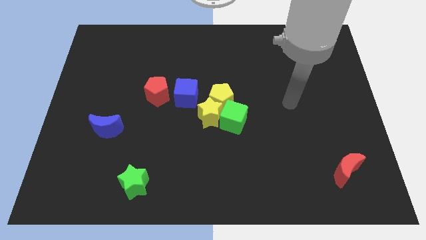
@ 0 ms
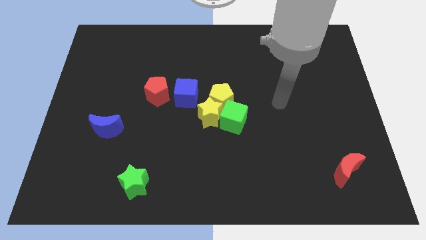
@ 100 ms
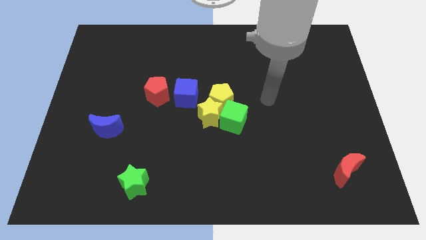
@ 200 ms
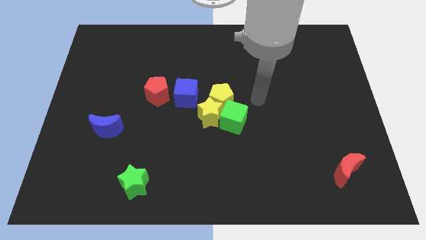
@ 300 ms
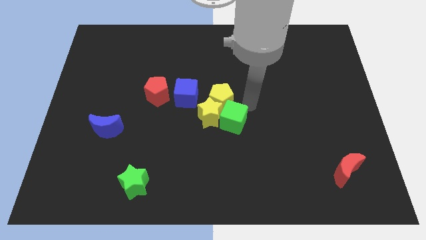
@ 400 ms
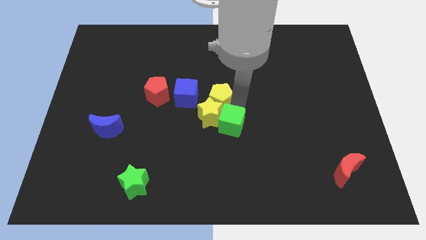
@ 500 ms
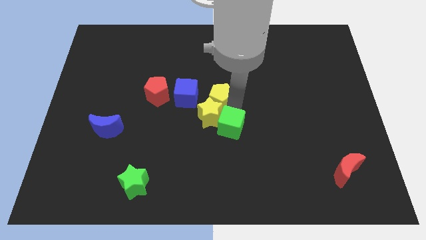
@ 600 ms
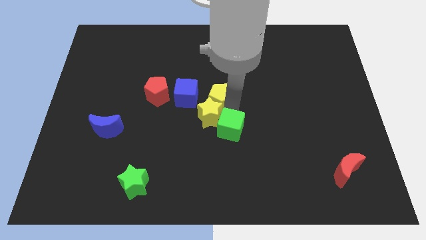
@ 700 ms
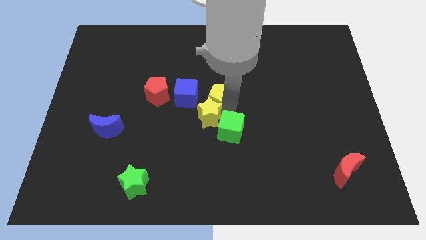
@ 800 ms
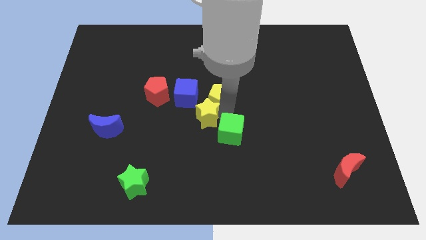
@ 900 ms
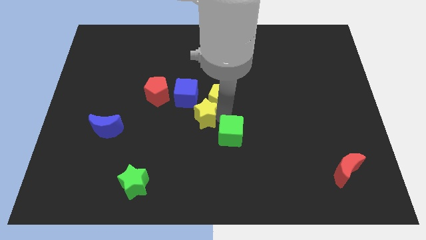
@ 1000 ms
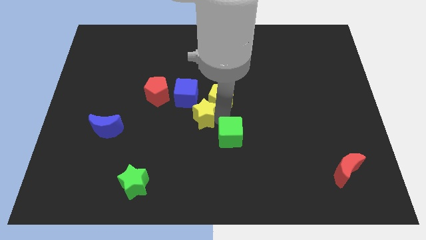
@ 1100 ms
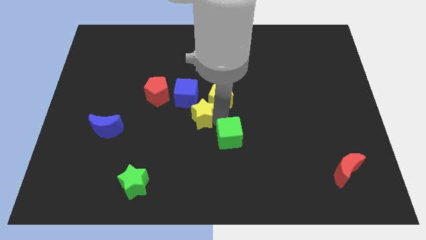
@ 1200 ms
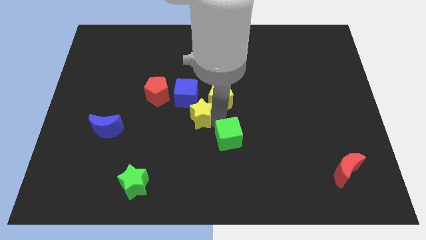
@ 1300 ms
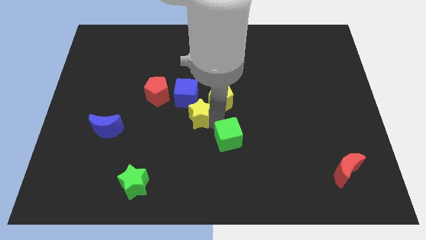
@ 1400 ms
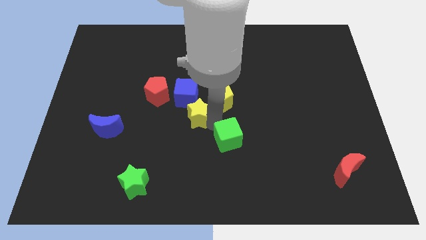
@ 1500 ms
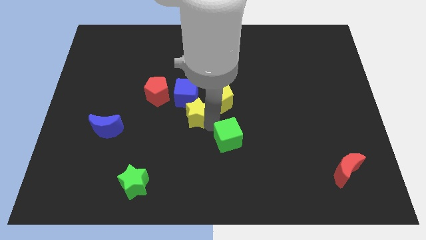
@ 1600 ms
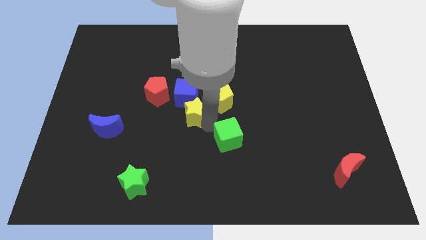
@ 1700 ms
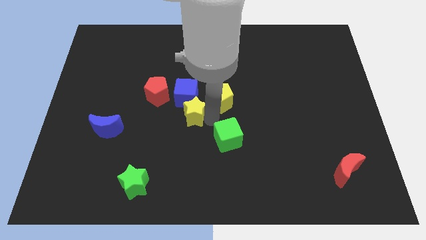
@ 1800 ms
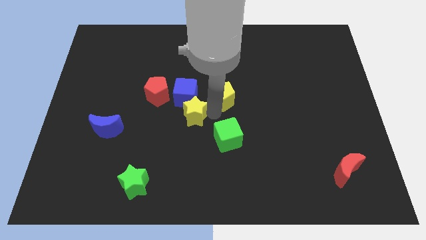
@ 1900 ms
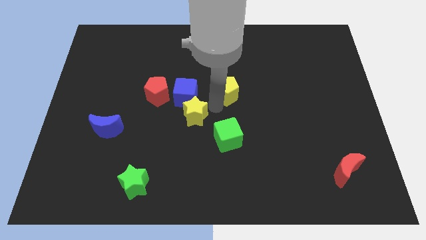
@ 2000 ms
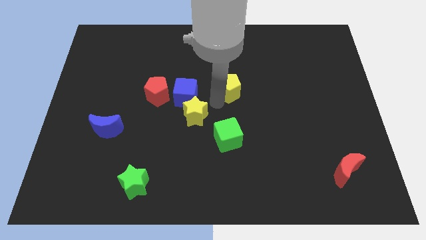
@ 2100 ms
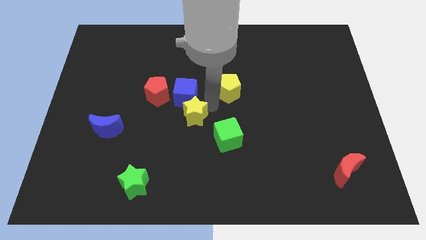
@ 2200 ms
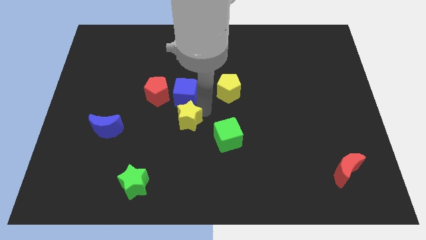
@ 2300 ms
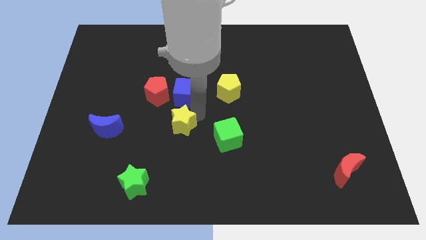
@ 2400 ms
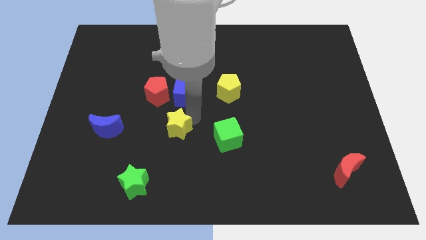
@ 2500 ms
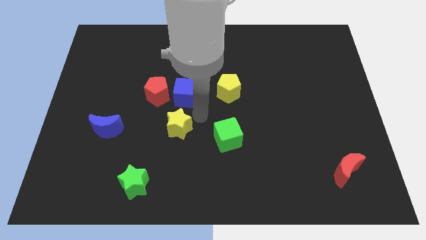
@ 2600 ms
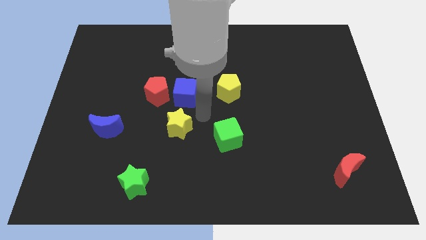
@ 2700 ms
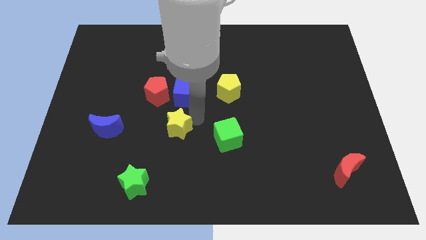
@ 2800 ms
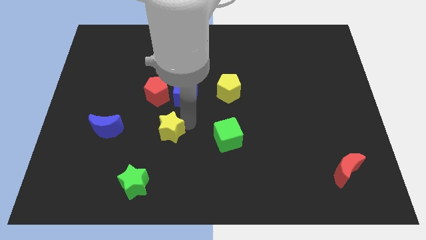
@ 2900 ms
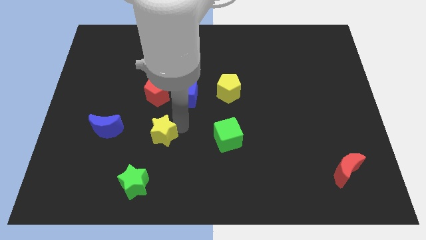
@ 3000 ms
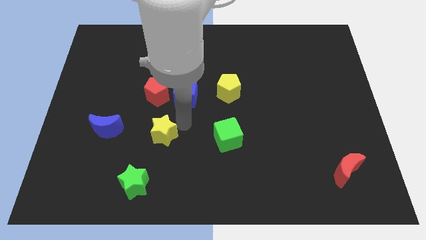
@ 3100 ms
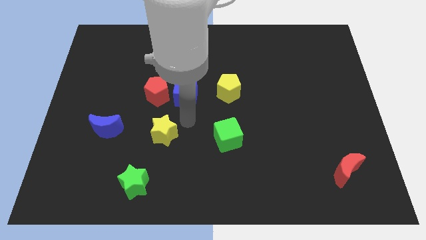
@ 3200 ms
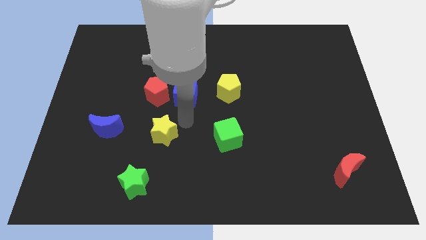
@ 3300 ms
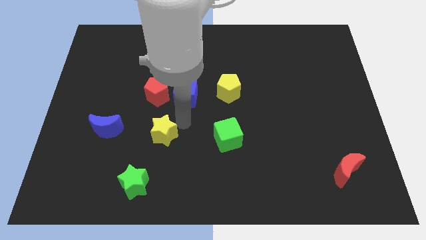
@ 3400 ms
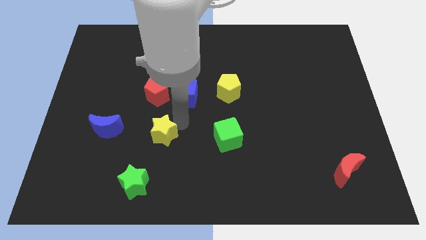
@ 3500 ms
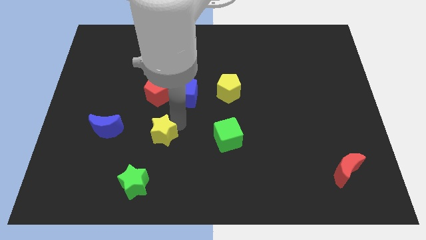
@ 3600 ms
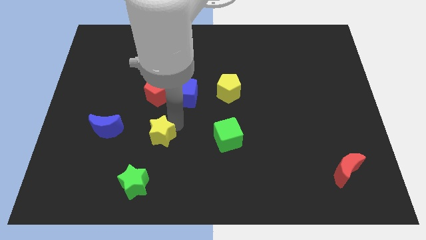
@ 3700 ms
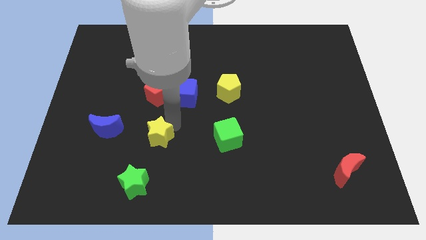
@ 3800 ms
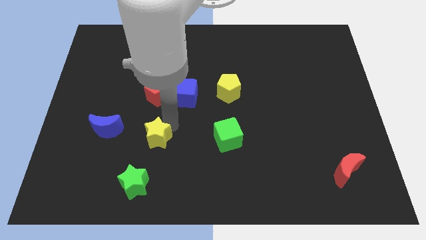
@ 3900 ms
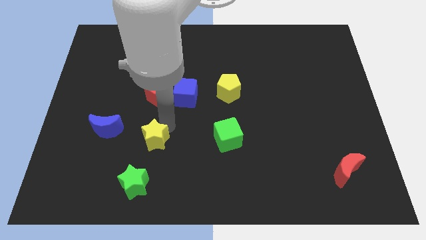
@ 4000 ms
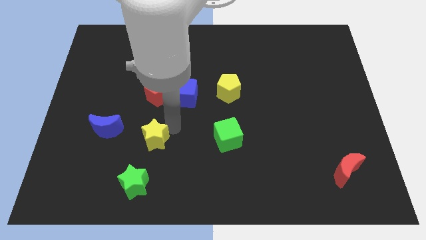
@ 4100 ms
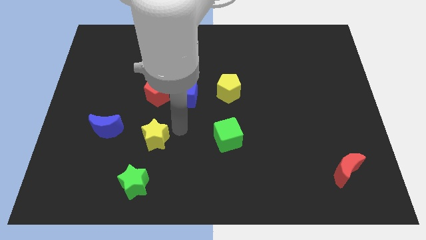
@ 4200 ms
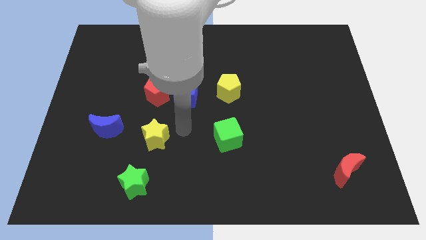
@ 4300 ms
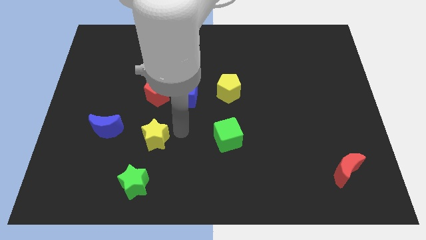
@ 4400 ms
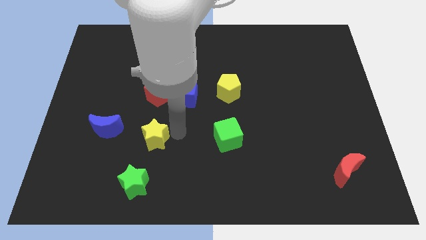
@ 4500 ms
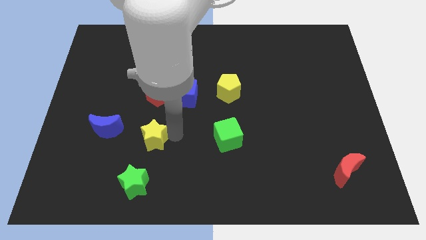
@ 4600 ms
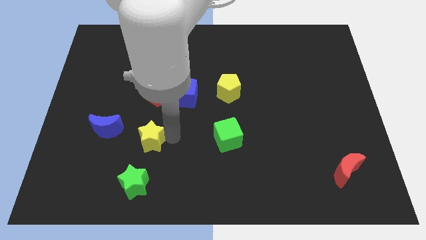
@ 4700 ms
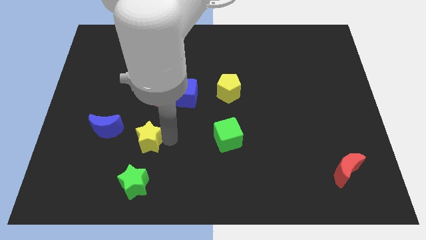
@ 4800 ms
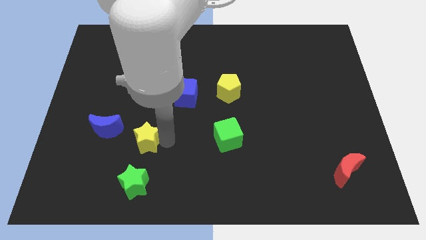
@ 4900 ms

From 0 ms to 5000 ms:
move the yellow star to the bottom right of the blue moon

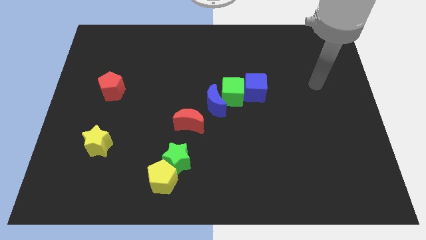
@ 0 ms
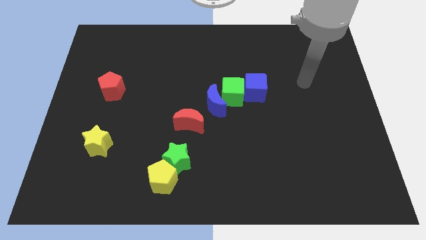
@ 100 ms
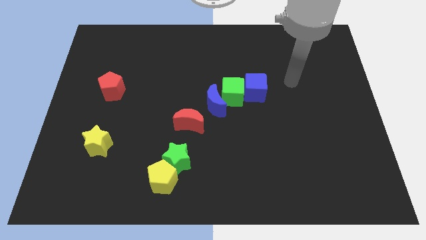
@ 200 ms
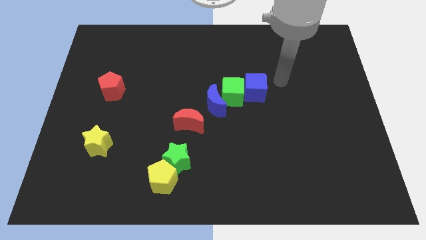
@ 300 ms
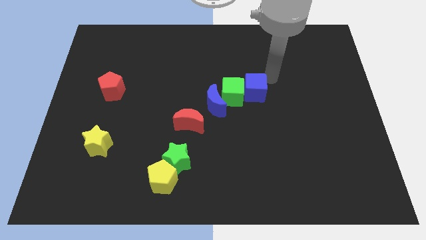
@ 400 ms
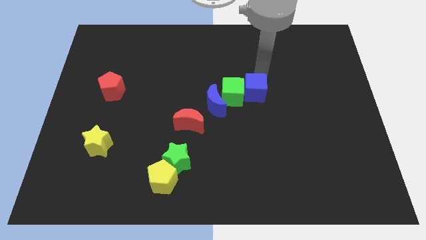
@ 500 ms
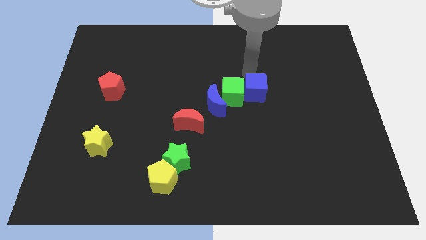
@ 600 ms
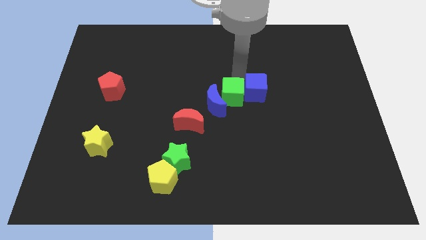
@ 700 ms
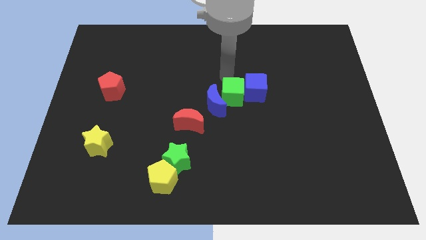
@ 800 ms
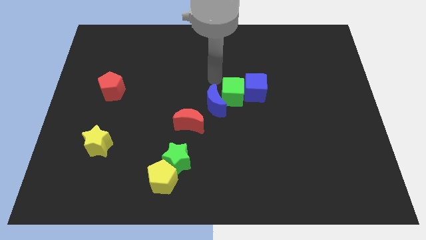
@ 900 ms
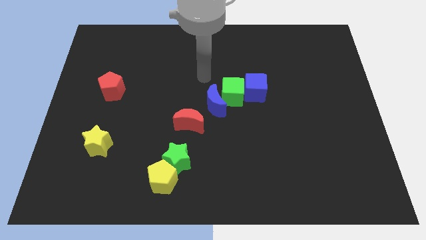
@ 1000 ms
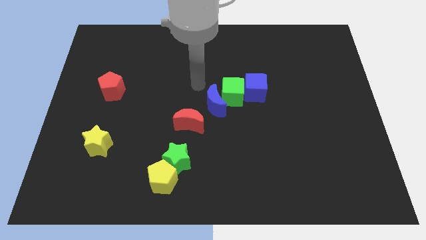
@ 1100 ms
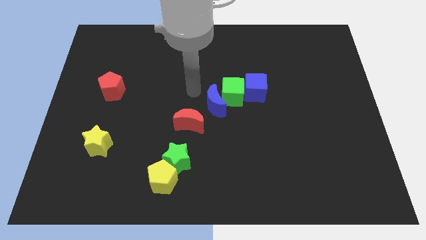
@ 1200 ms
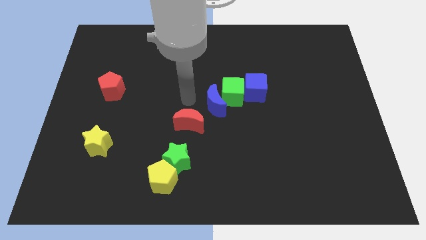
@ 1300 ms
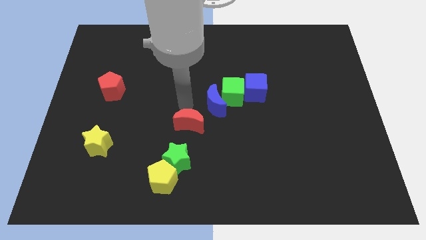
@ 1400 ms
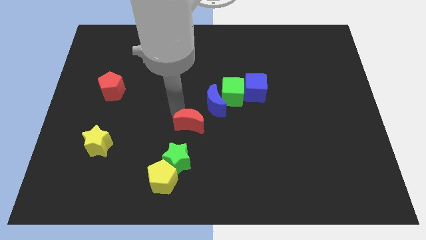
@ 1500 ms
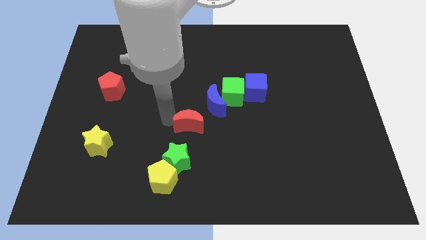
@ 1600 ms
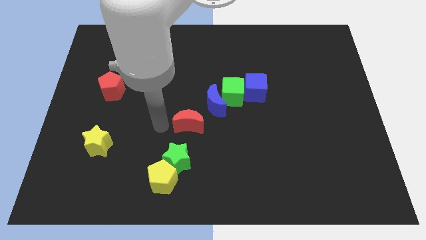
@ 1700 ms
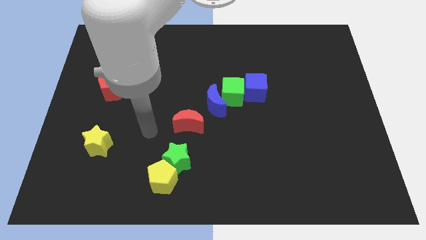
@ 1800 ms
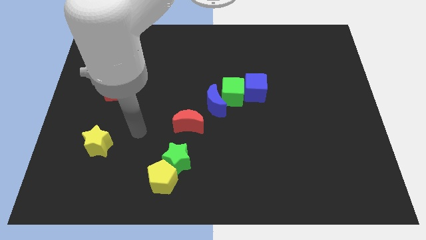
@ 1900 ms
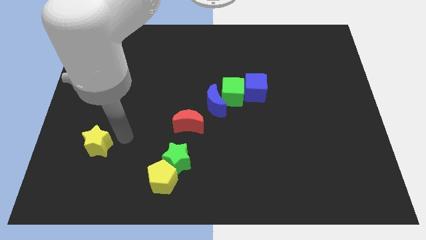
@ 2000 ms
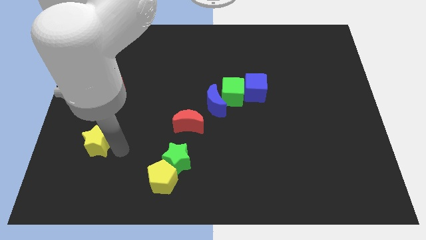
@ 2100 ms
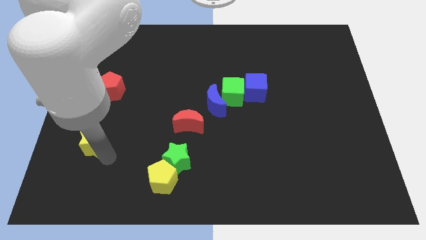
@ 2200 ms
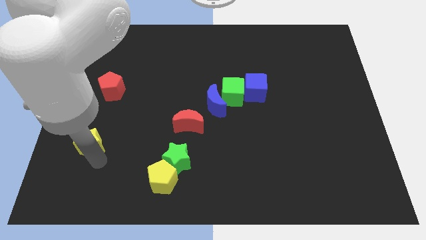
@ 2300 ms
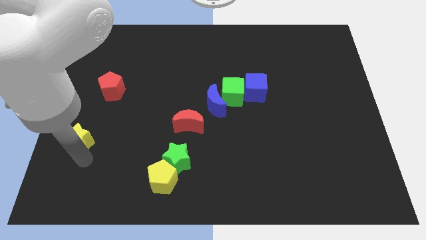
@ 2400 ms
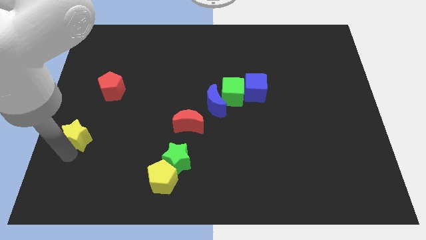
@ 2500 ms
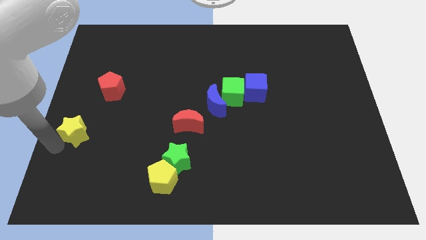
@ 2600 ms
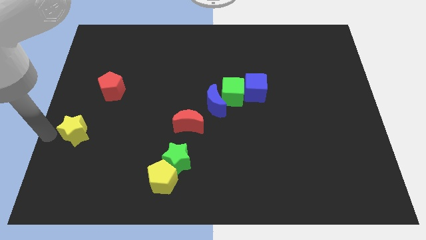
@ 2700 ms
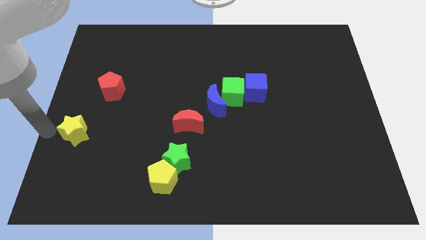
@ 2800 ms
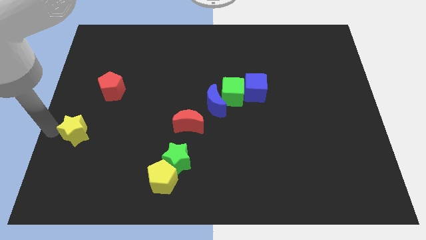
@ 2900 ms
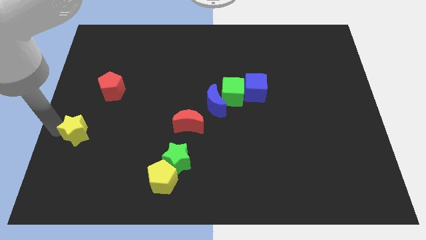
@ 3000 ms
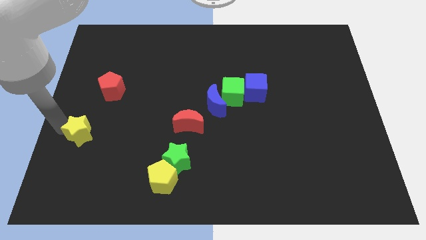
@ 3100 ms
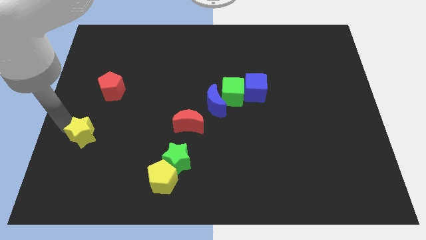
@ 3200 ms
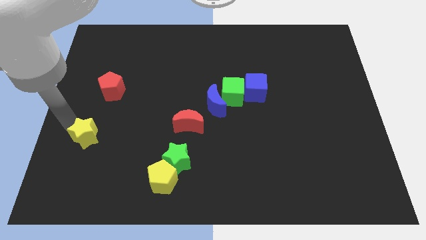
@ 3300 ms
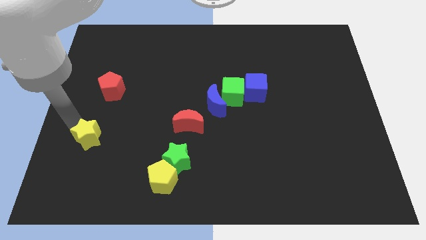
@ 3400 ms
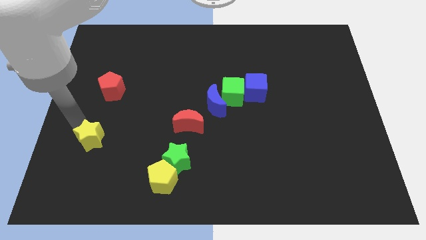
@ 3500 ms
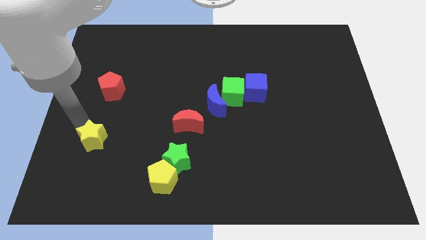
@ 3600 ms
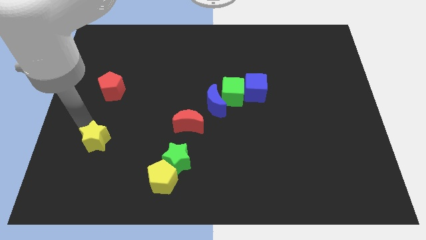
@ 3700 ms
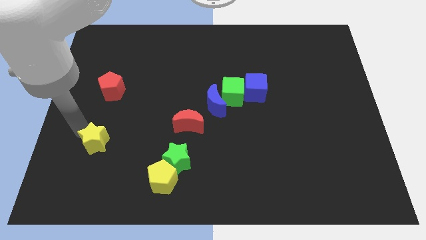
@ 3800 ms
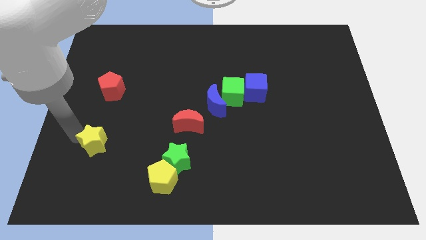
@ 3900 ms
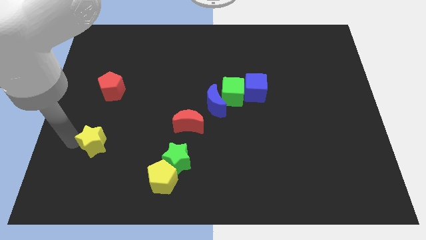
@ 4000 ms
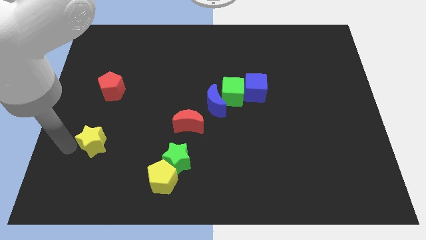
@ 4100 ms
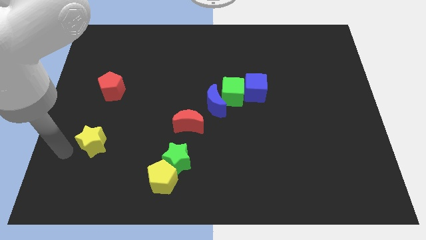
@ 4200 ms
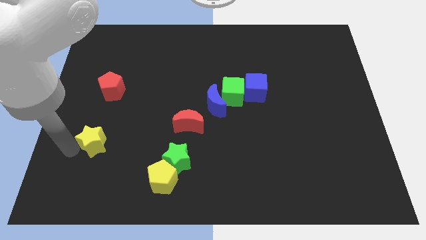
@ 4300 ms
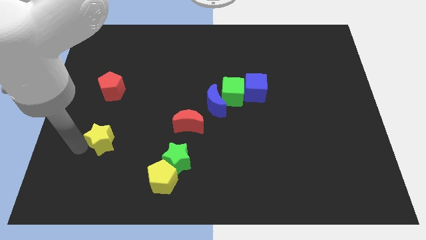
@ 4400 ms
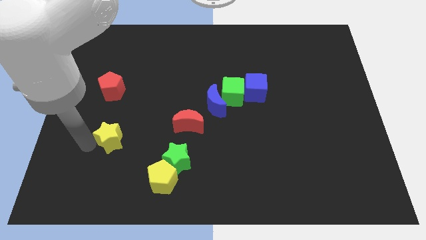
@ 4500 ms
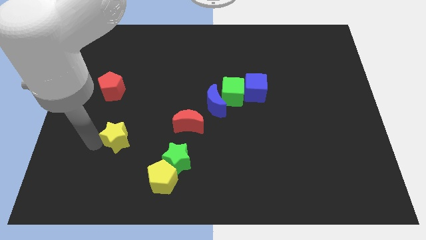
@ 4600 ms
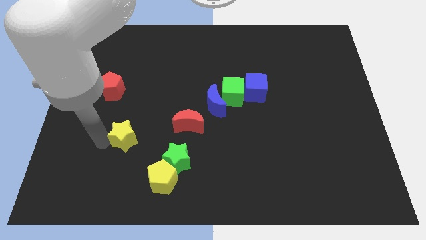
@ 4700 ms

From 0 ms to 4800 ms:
slide the yellow star just left of the red moon
